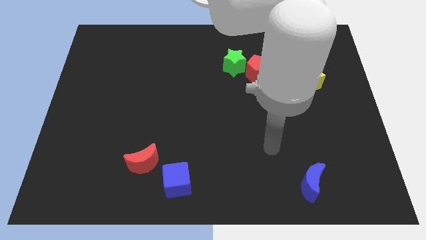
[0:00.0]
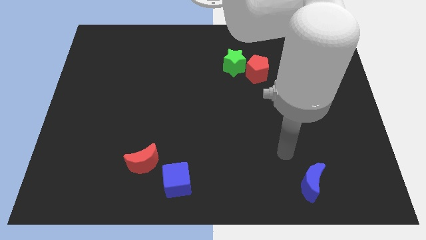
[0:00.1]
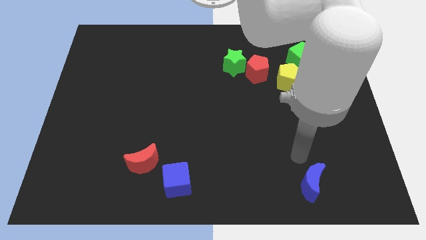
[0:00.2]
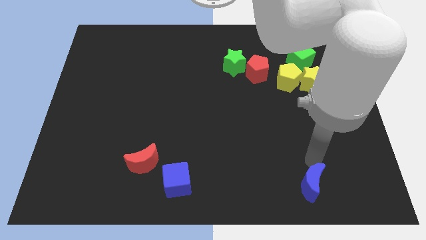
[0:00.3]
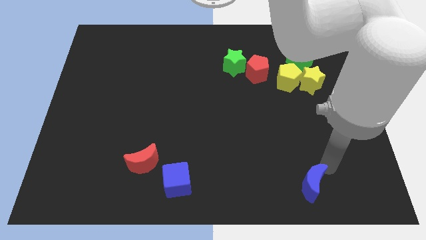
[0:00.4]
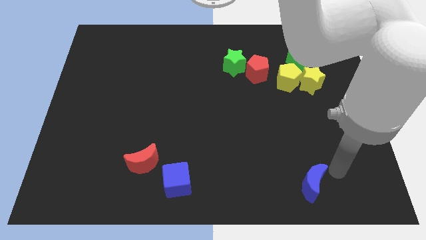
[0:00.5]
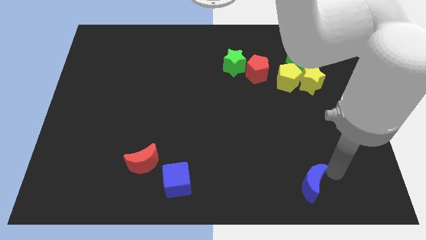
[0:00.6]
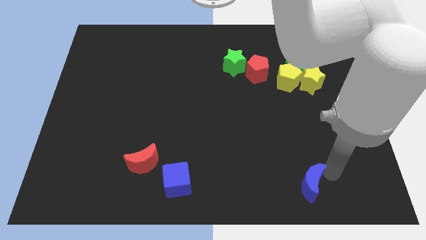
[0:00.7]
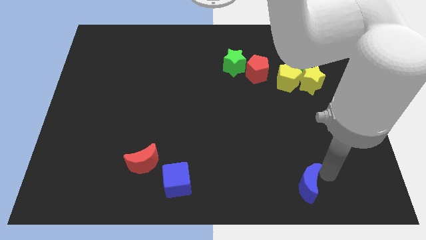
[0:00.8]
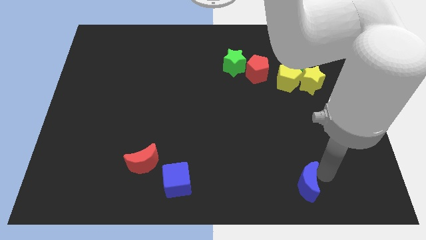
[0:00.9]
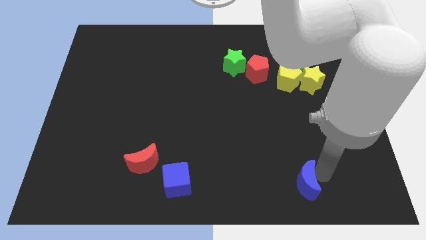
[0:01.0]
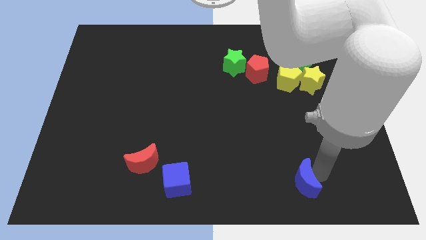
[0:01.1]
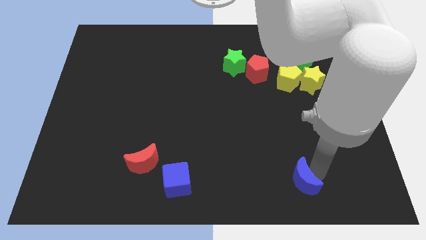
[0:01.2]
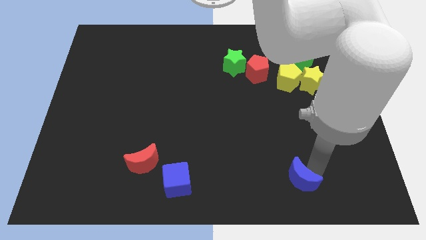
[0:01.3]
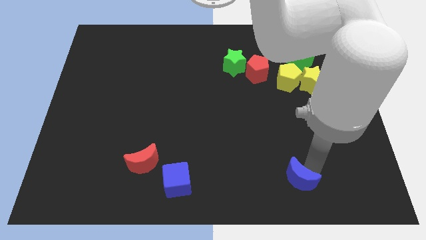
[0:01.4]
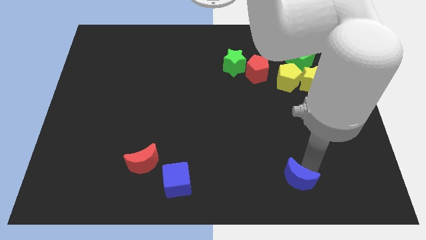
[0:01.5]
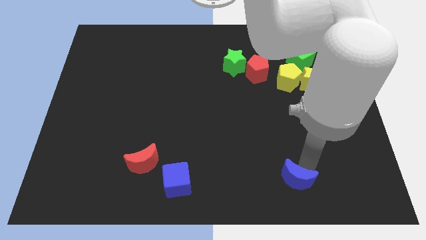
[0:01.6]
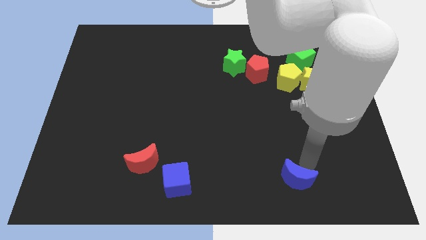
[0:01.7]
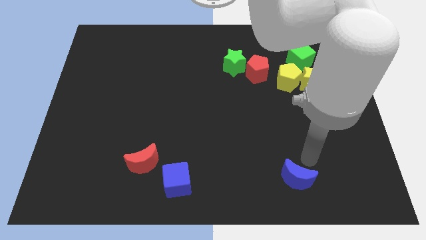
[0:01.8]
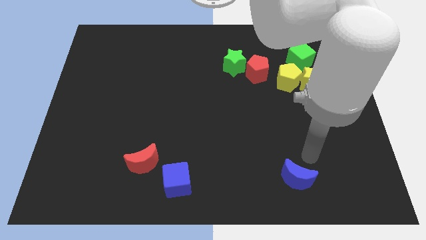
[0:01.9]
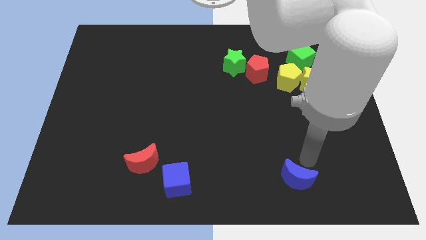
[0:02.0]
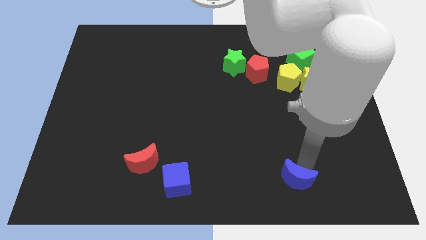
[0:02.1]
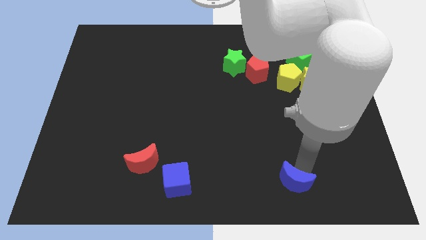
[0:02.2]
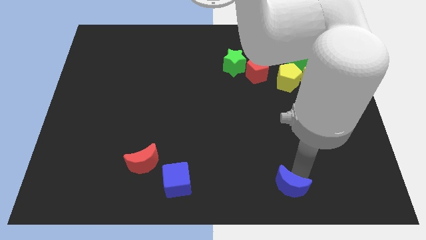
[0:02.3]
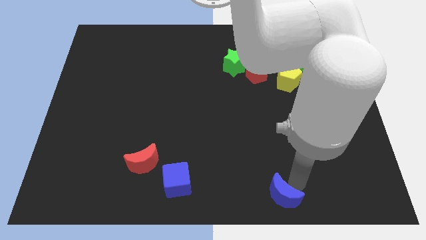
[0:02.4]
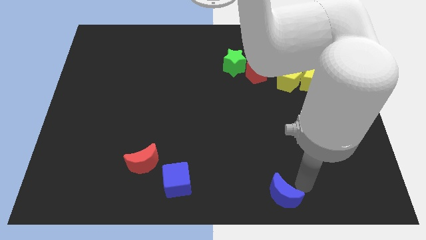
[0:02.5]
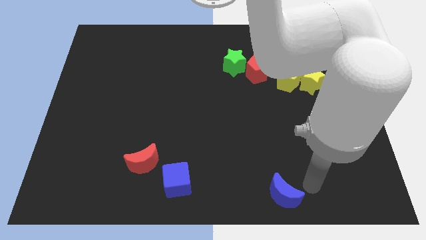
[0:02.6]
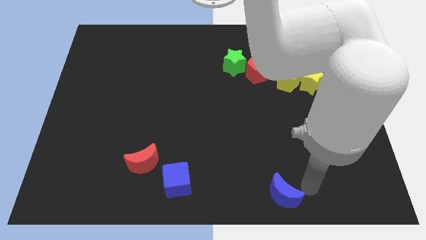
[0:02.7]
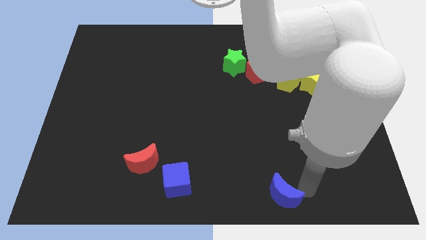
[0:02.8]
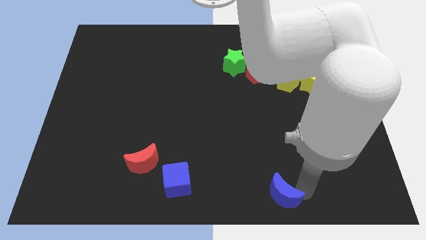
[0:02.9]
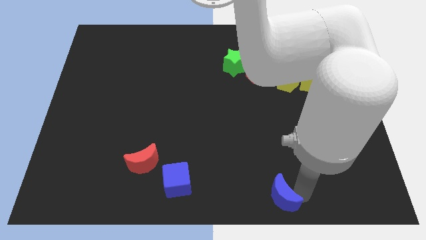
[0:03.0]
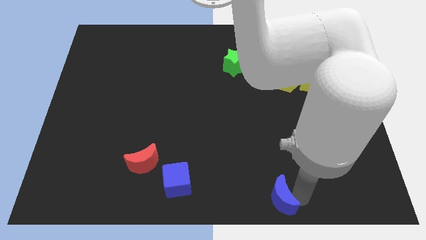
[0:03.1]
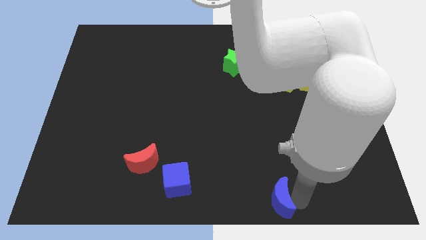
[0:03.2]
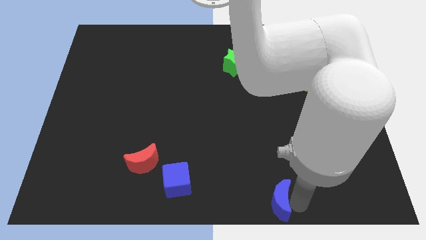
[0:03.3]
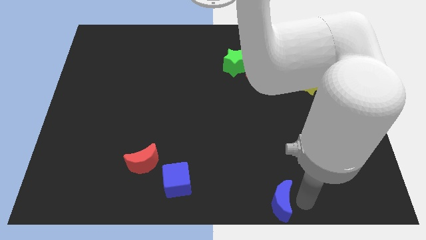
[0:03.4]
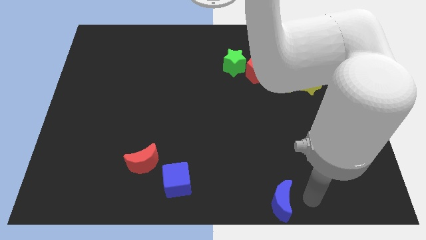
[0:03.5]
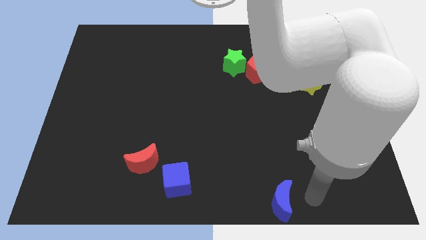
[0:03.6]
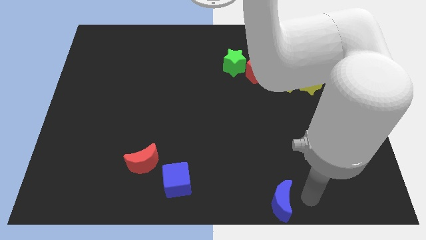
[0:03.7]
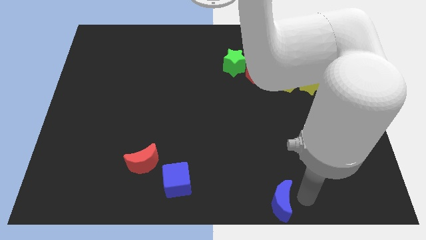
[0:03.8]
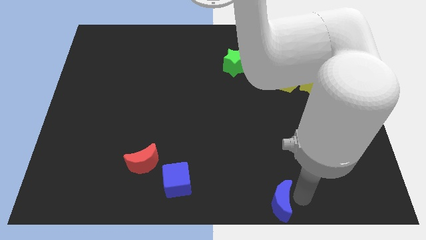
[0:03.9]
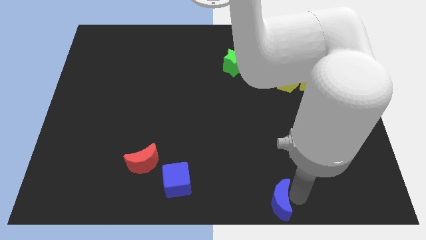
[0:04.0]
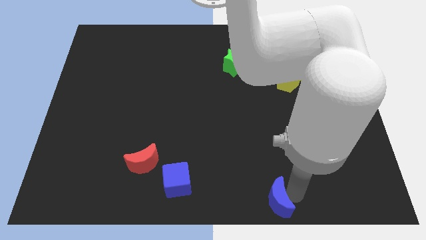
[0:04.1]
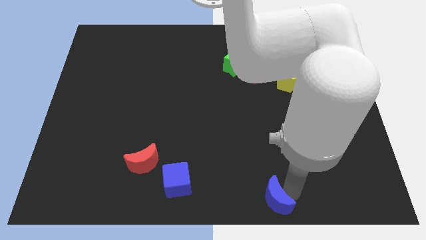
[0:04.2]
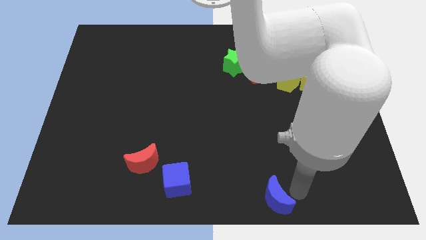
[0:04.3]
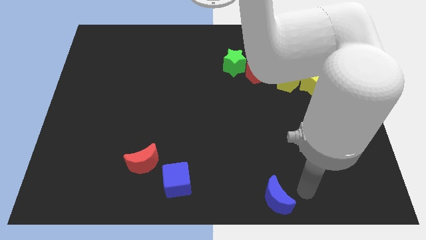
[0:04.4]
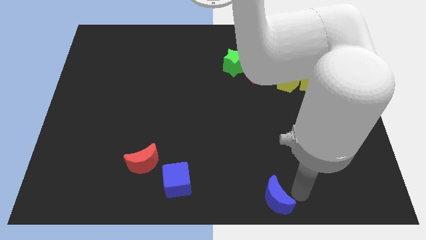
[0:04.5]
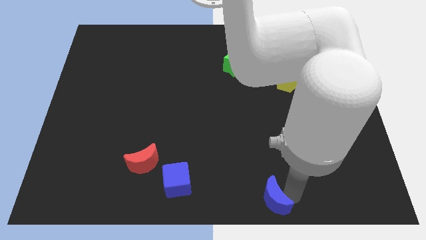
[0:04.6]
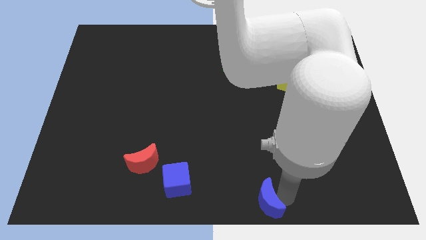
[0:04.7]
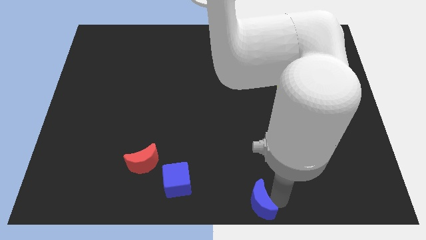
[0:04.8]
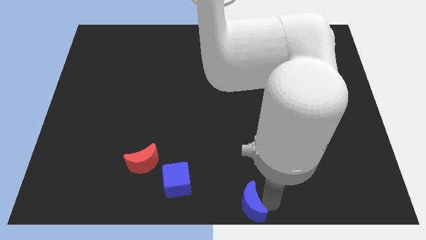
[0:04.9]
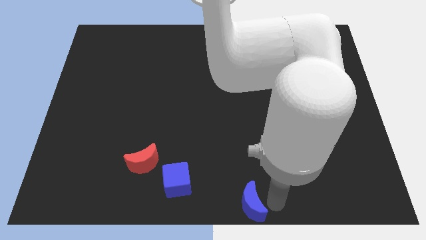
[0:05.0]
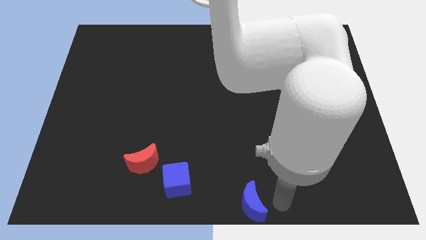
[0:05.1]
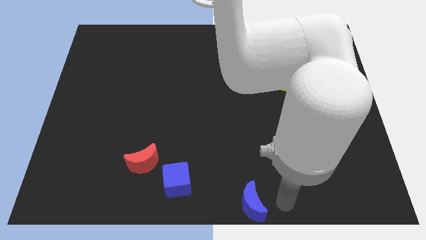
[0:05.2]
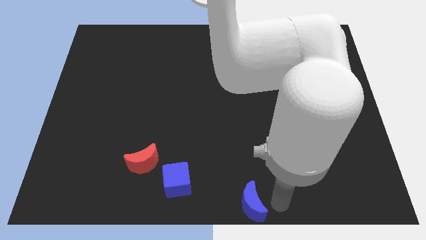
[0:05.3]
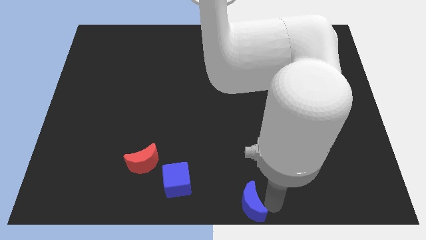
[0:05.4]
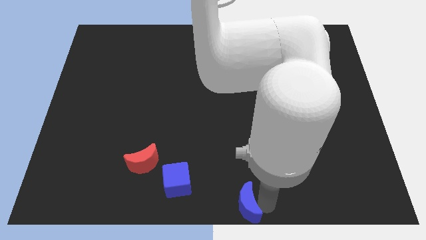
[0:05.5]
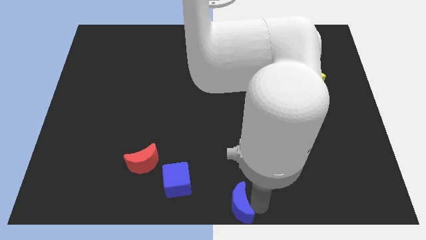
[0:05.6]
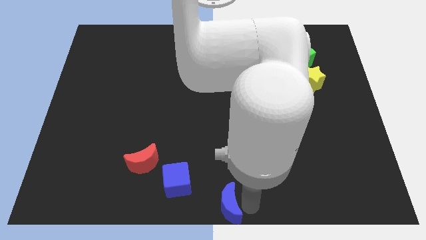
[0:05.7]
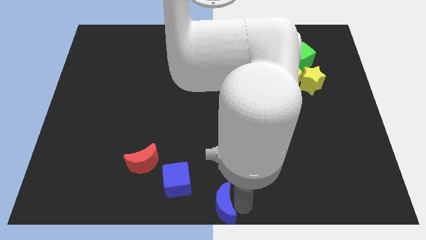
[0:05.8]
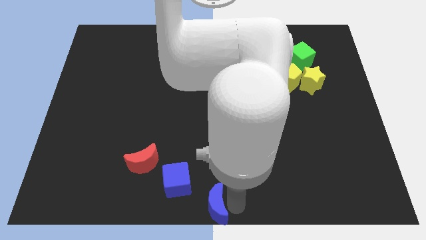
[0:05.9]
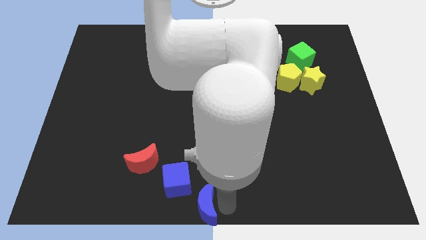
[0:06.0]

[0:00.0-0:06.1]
slide the blue moon to the left

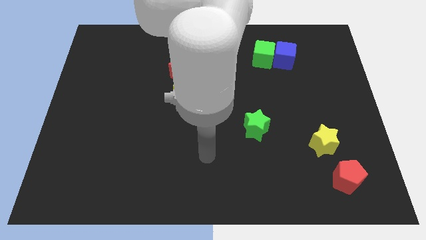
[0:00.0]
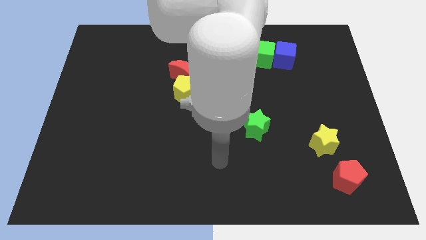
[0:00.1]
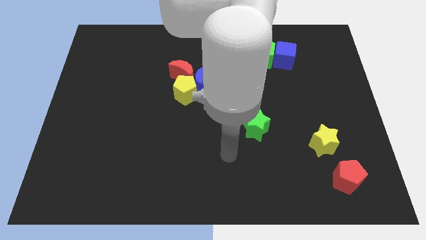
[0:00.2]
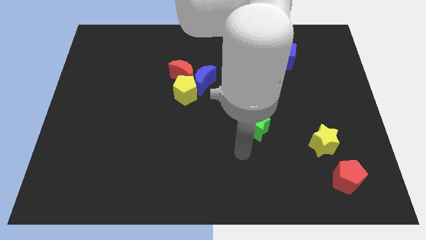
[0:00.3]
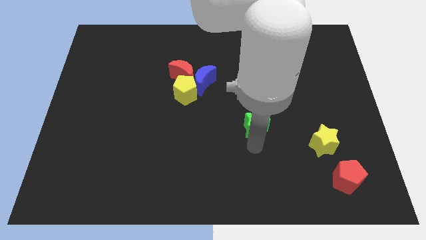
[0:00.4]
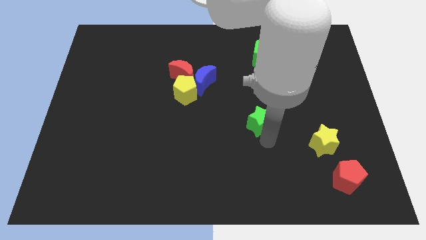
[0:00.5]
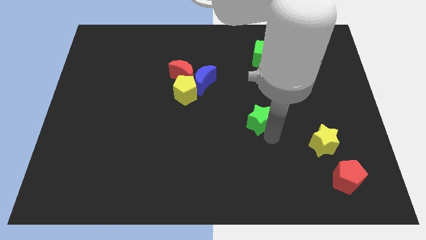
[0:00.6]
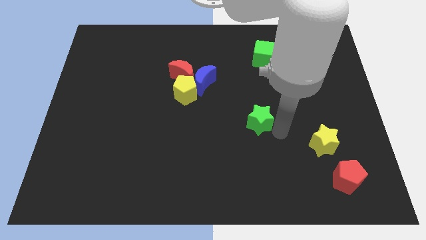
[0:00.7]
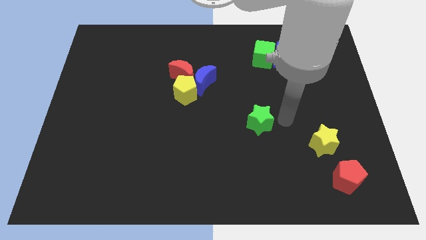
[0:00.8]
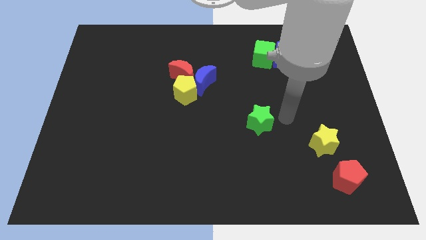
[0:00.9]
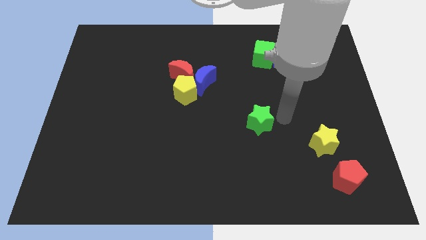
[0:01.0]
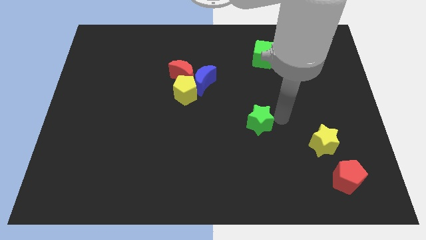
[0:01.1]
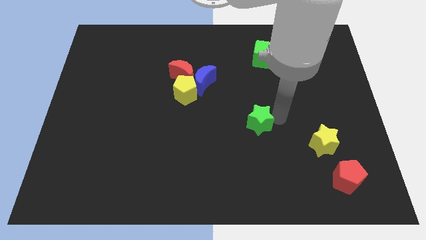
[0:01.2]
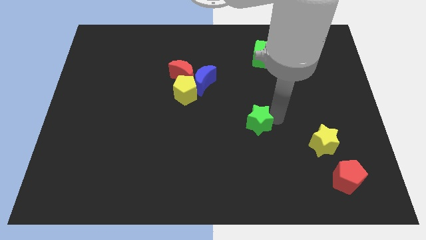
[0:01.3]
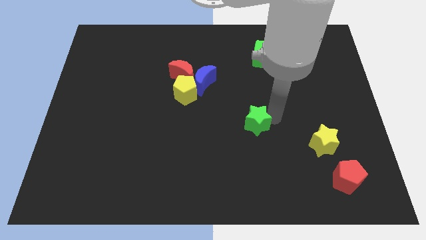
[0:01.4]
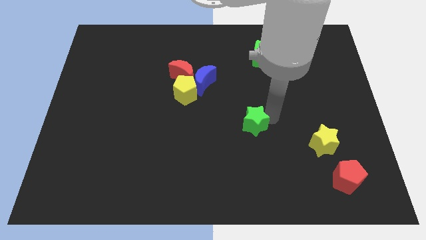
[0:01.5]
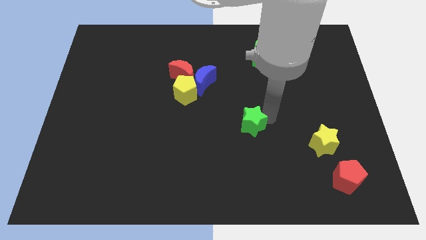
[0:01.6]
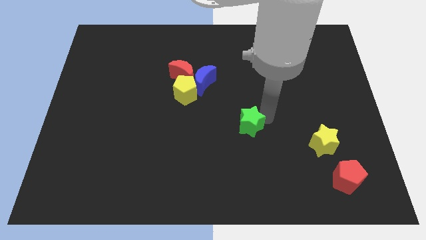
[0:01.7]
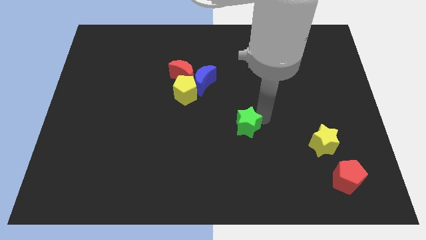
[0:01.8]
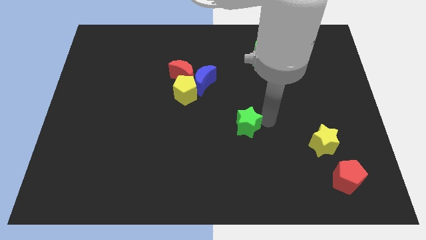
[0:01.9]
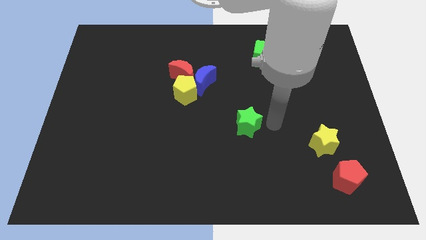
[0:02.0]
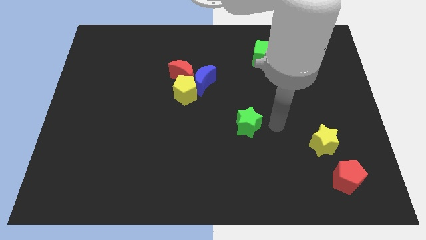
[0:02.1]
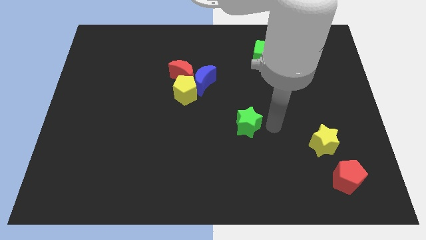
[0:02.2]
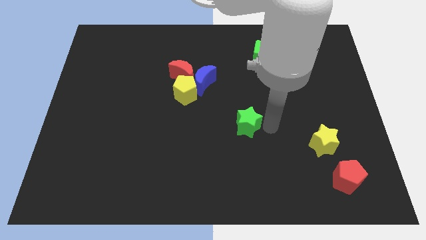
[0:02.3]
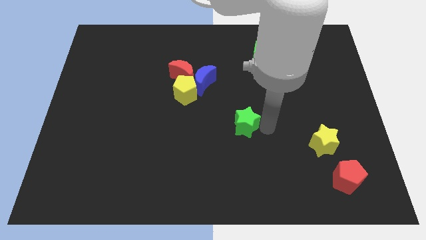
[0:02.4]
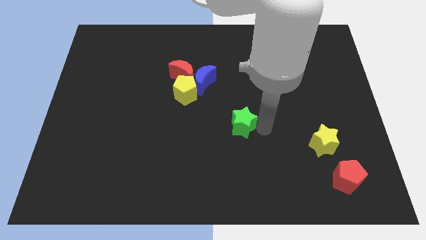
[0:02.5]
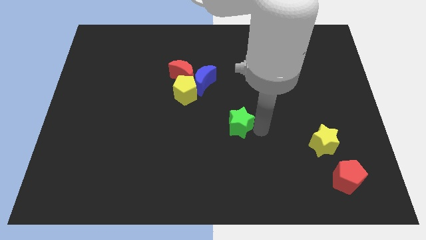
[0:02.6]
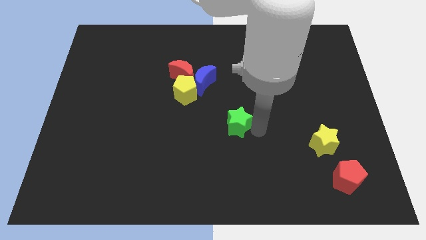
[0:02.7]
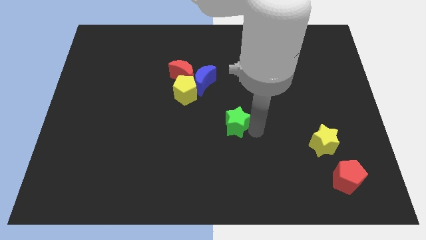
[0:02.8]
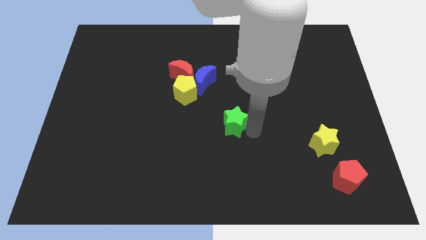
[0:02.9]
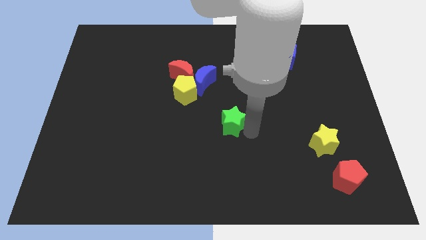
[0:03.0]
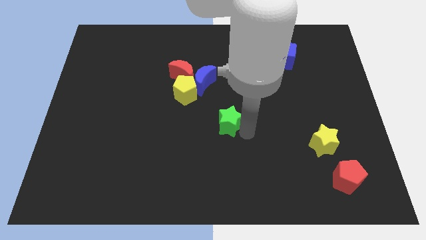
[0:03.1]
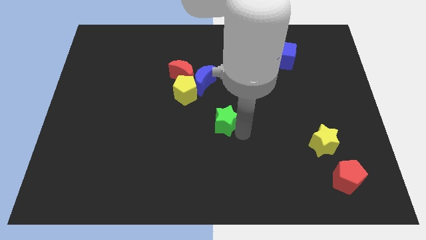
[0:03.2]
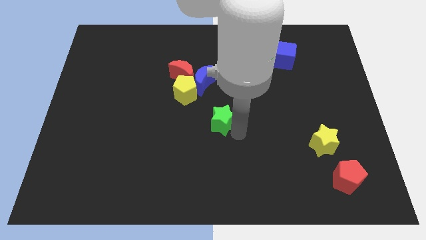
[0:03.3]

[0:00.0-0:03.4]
slightly move the green star to the left
